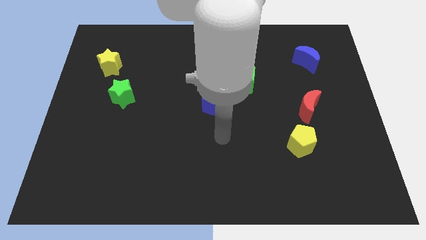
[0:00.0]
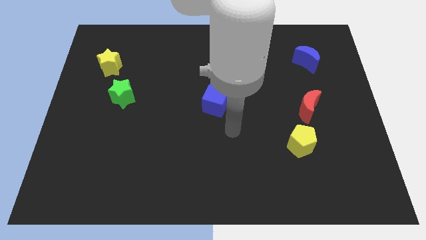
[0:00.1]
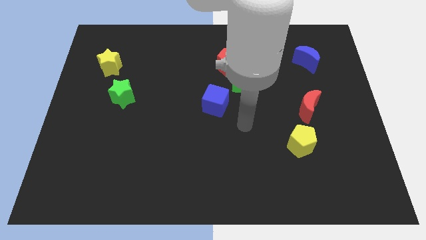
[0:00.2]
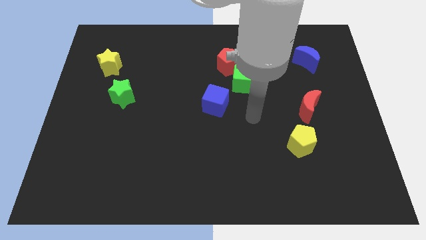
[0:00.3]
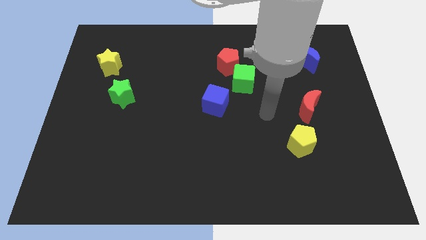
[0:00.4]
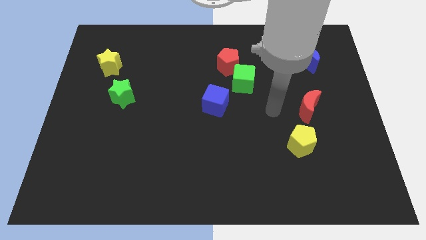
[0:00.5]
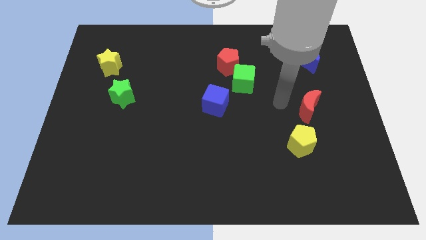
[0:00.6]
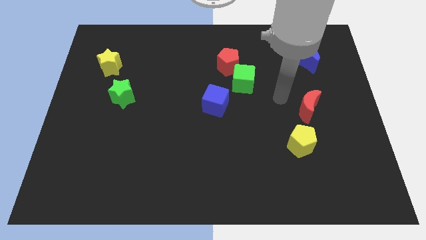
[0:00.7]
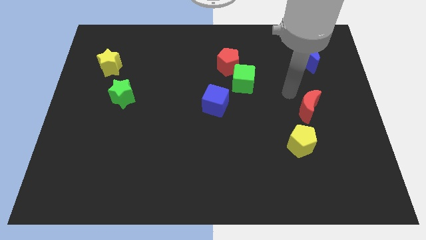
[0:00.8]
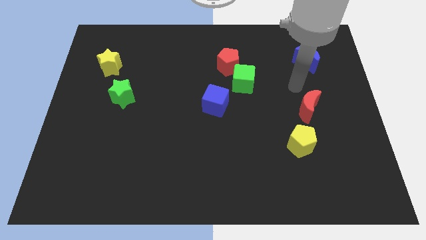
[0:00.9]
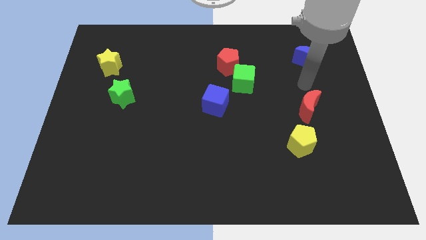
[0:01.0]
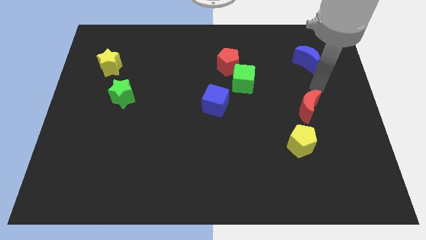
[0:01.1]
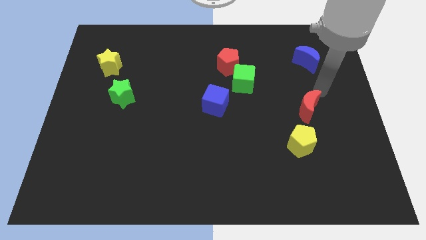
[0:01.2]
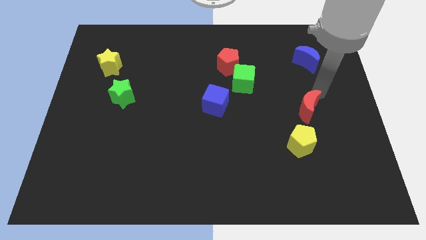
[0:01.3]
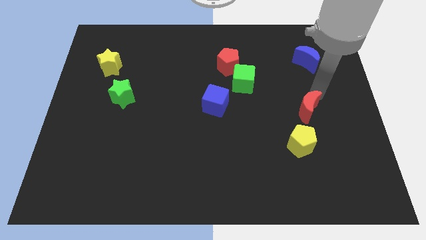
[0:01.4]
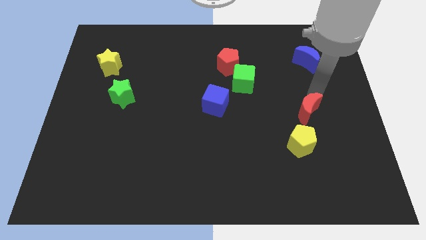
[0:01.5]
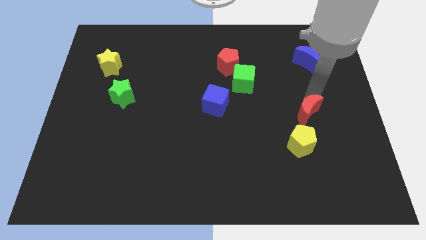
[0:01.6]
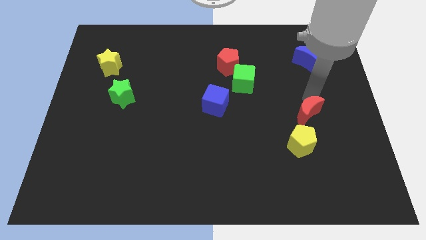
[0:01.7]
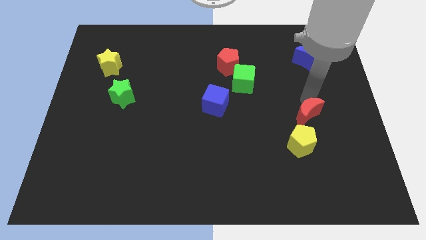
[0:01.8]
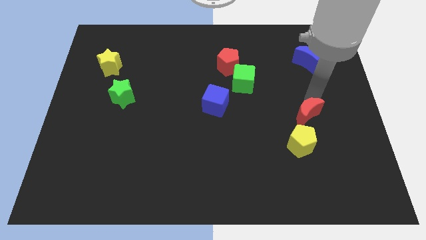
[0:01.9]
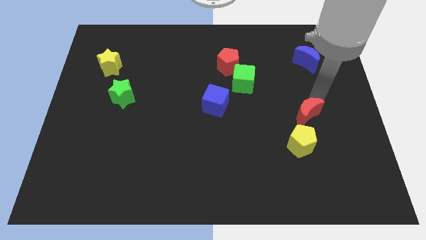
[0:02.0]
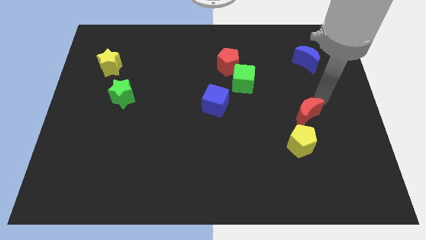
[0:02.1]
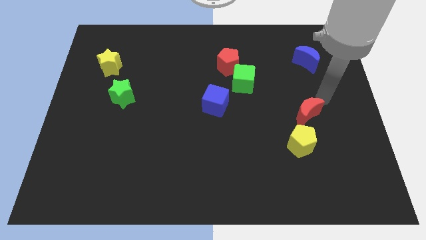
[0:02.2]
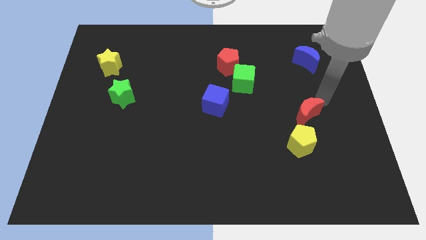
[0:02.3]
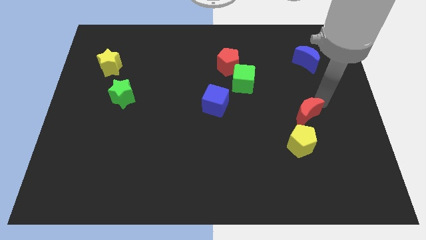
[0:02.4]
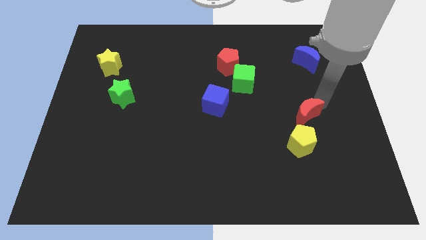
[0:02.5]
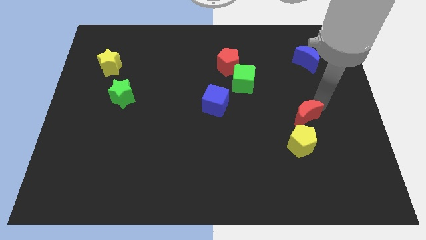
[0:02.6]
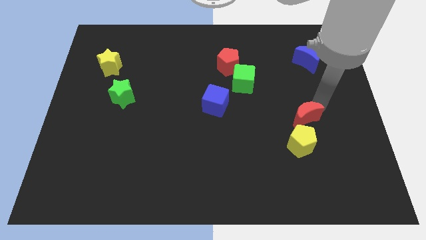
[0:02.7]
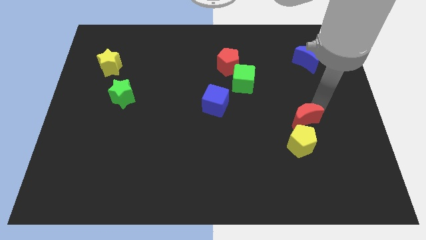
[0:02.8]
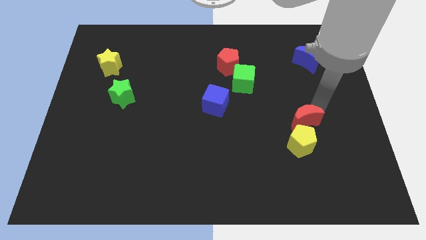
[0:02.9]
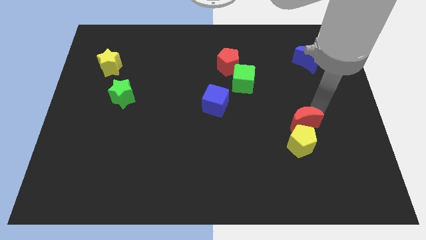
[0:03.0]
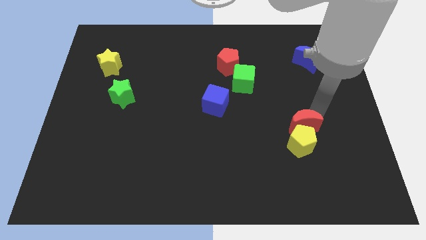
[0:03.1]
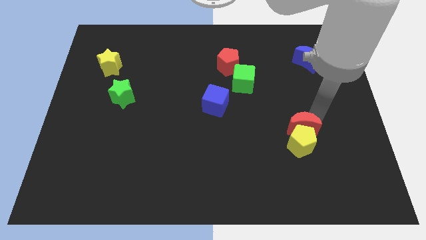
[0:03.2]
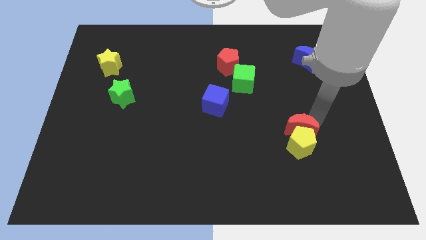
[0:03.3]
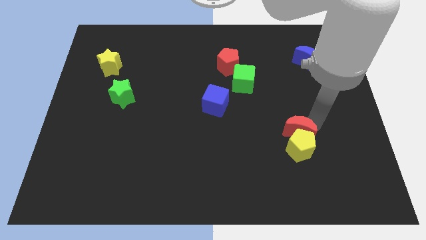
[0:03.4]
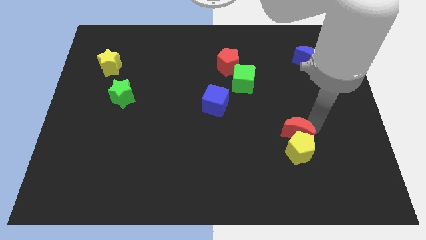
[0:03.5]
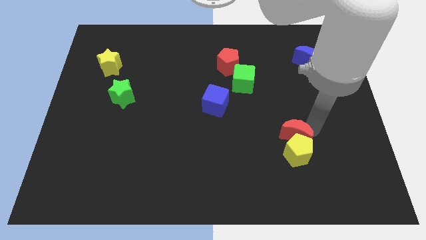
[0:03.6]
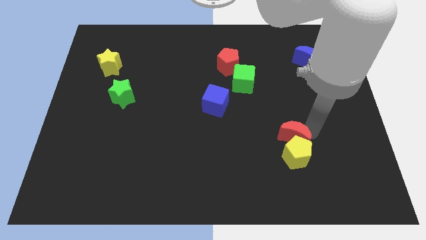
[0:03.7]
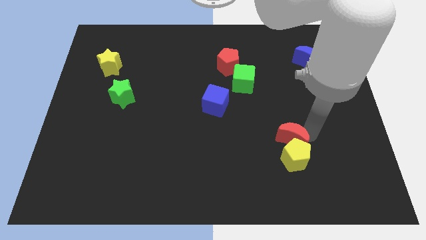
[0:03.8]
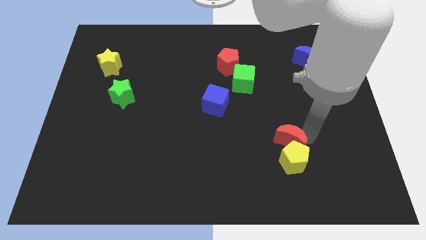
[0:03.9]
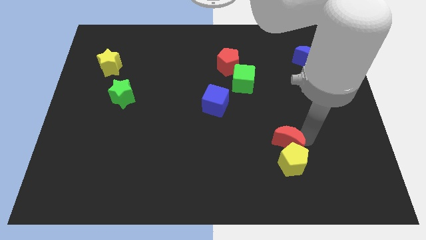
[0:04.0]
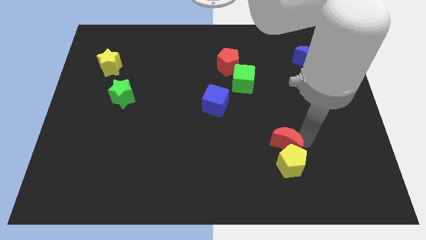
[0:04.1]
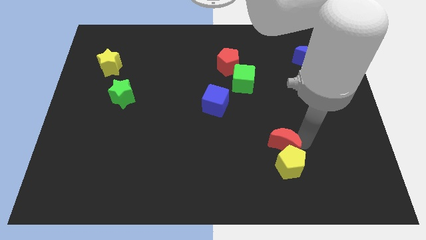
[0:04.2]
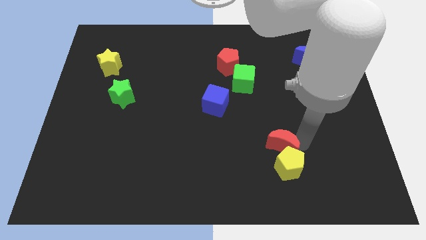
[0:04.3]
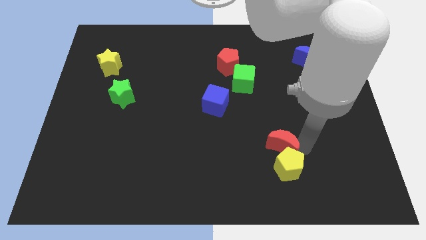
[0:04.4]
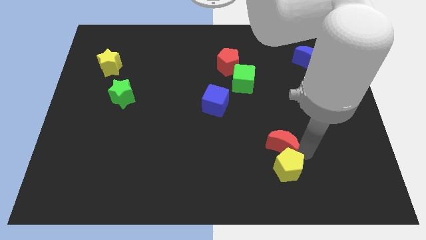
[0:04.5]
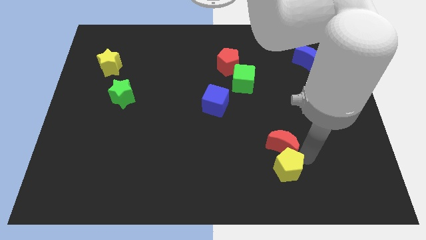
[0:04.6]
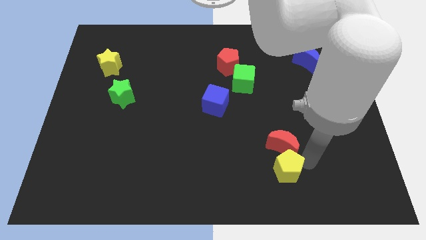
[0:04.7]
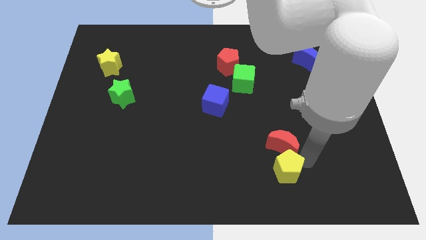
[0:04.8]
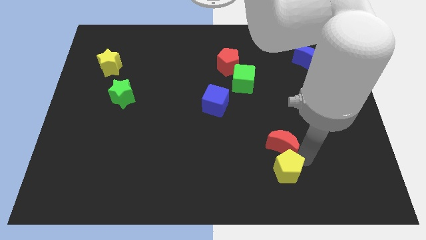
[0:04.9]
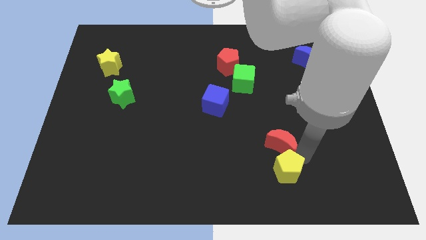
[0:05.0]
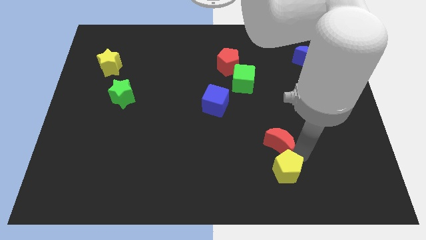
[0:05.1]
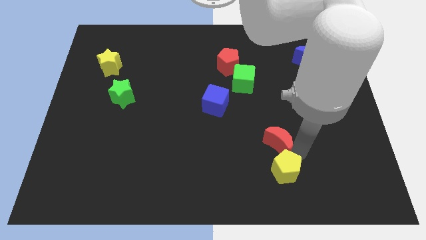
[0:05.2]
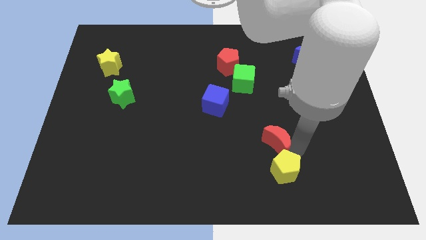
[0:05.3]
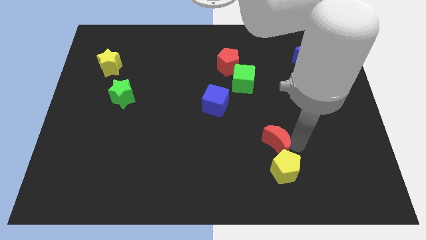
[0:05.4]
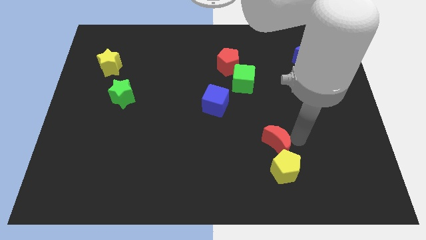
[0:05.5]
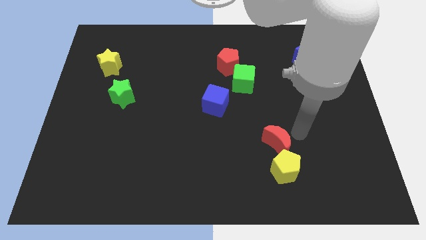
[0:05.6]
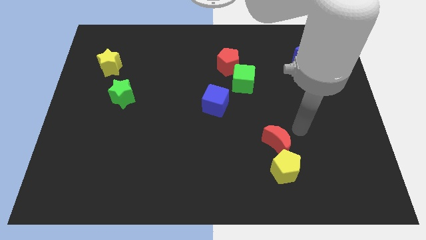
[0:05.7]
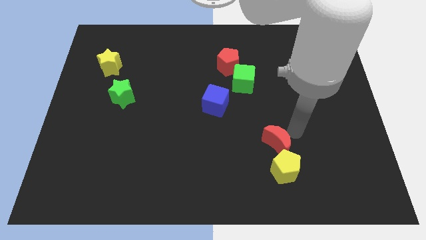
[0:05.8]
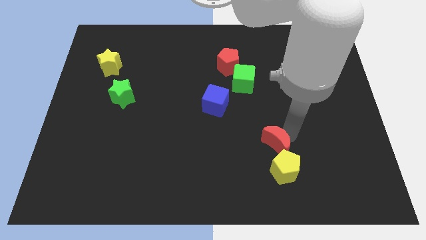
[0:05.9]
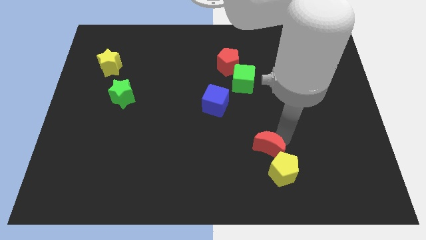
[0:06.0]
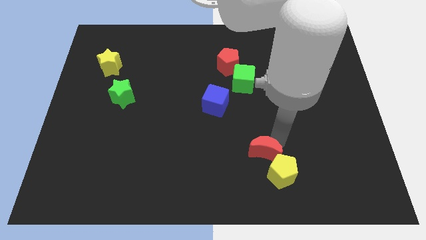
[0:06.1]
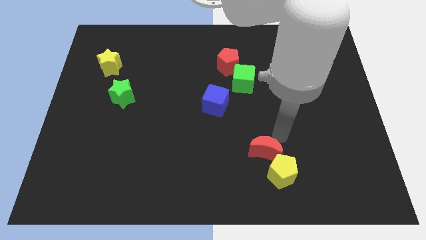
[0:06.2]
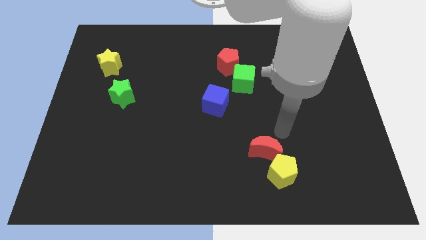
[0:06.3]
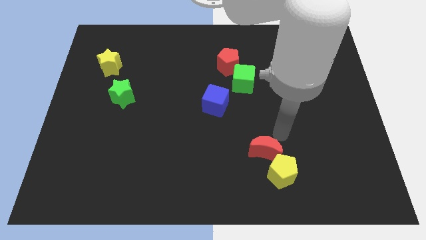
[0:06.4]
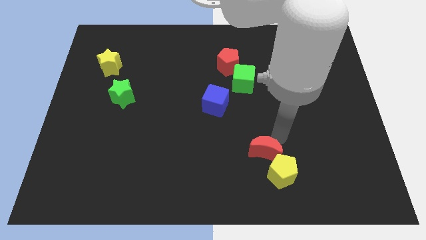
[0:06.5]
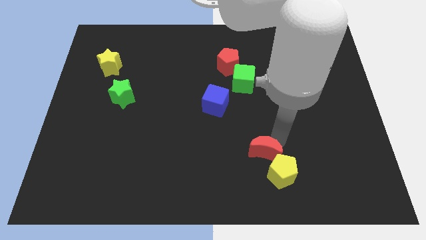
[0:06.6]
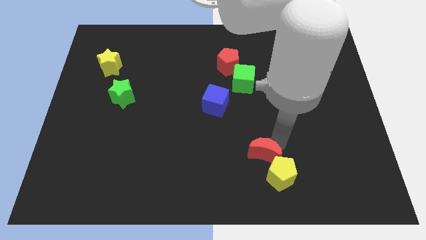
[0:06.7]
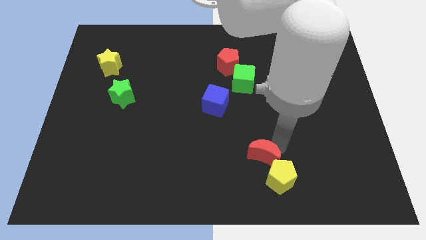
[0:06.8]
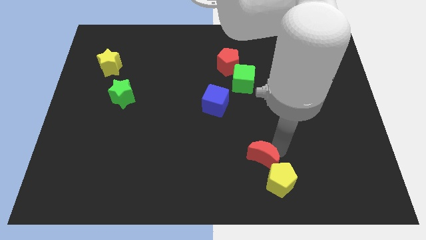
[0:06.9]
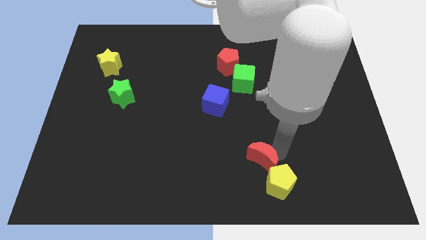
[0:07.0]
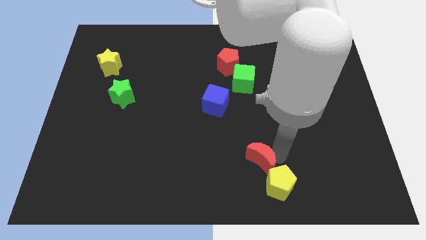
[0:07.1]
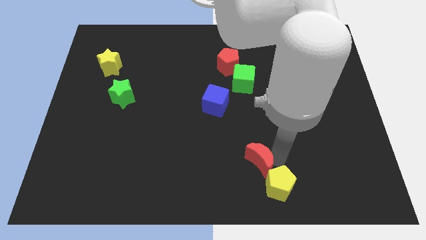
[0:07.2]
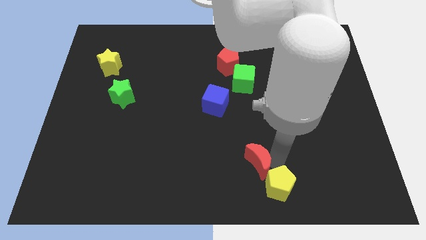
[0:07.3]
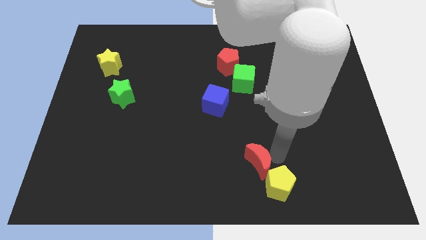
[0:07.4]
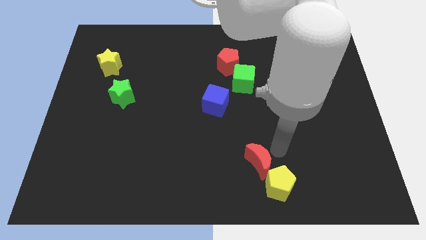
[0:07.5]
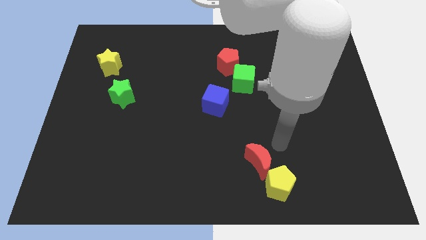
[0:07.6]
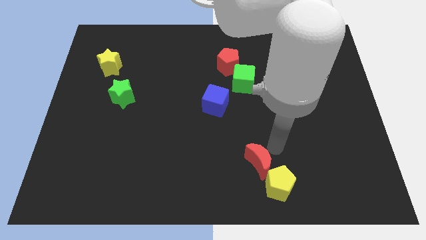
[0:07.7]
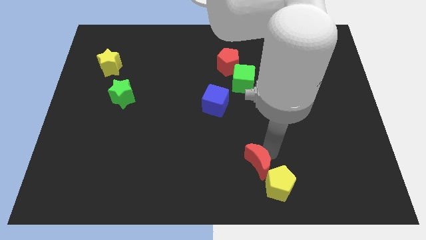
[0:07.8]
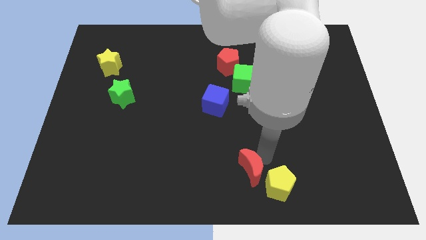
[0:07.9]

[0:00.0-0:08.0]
slide the red moon to the bottom
